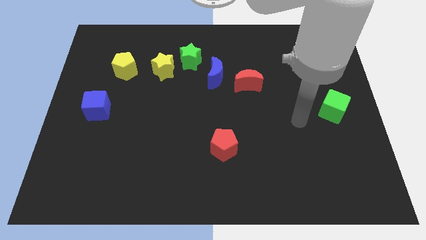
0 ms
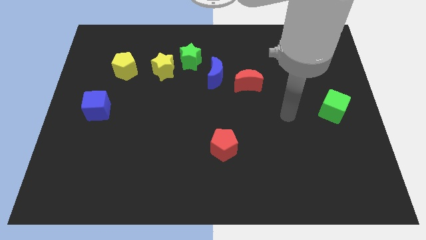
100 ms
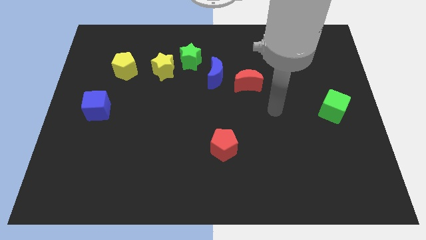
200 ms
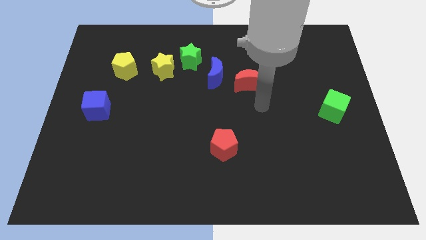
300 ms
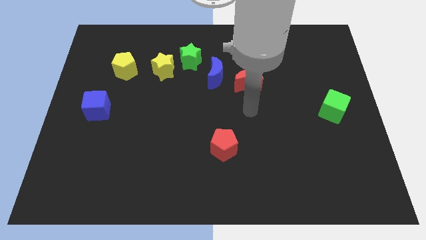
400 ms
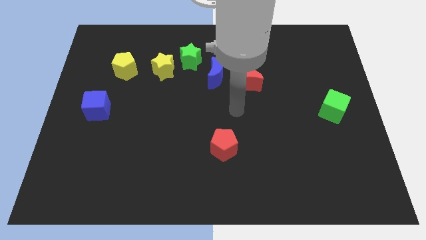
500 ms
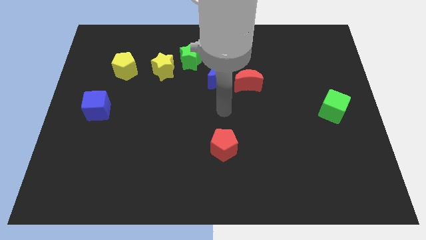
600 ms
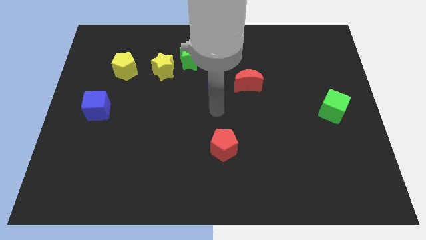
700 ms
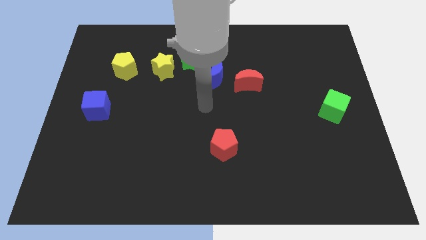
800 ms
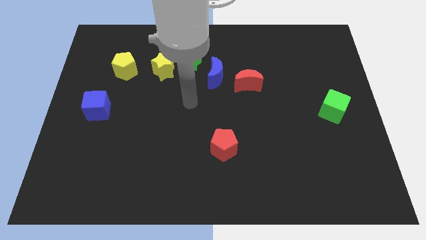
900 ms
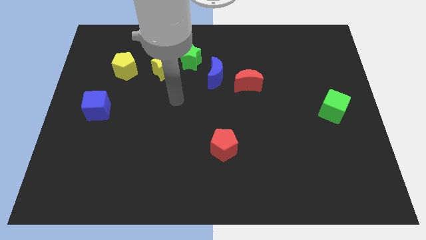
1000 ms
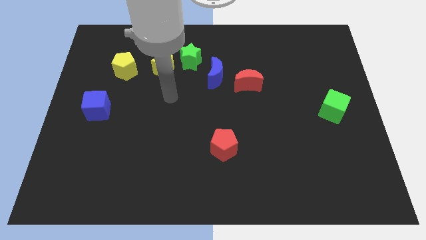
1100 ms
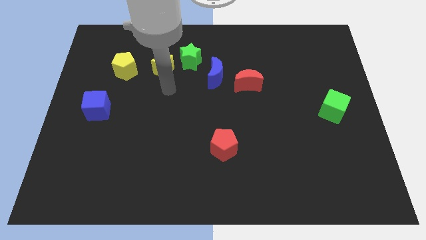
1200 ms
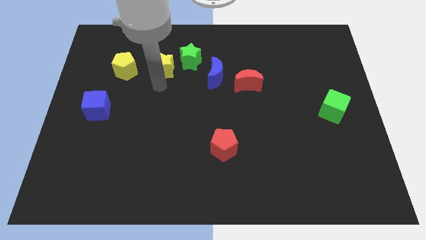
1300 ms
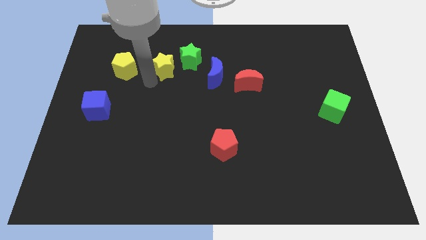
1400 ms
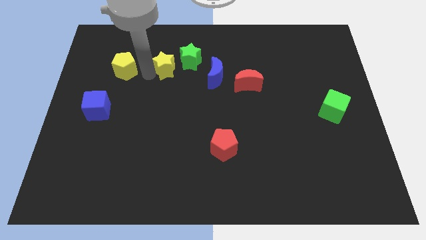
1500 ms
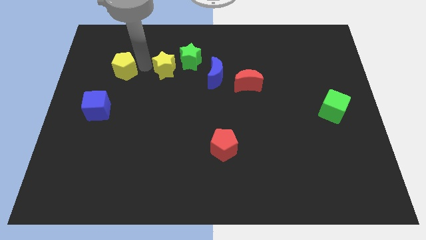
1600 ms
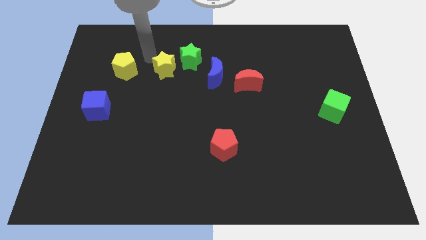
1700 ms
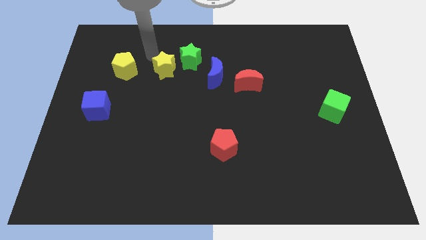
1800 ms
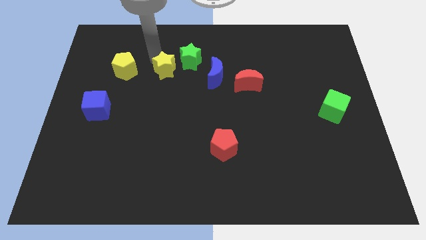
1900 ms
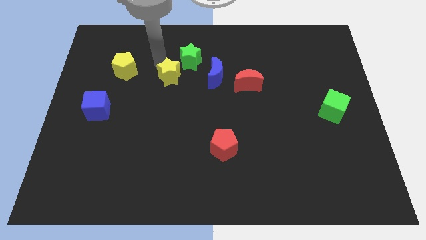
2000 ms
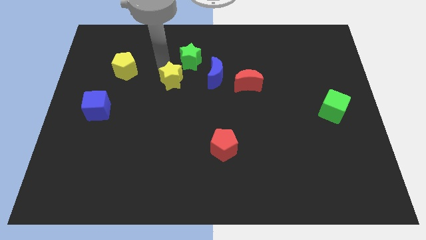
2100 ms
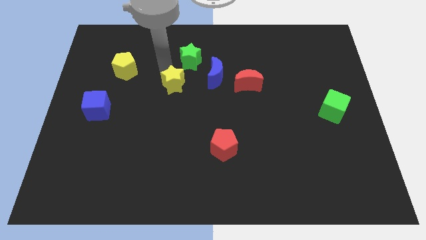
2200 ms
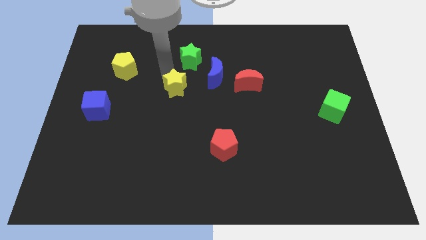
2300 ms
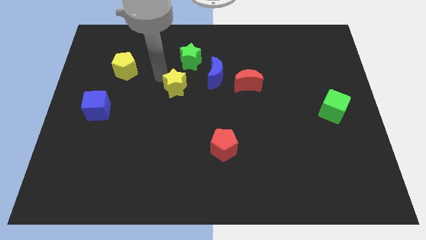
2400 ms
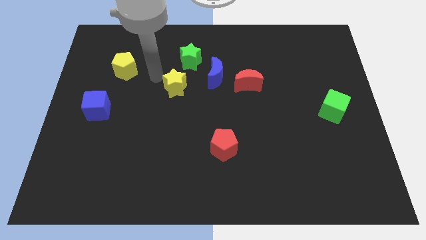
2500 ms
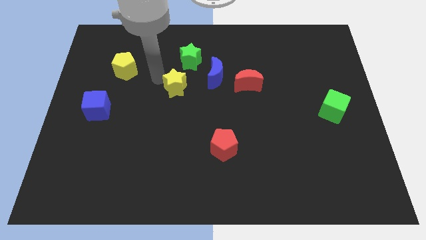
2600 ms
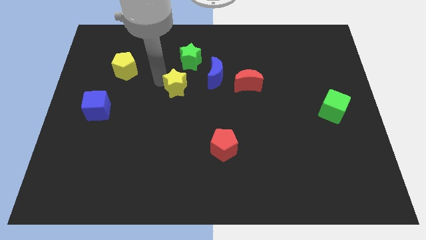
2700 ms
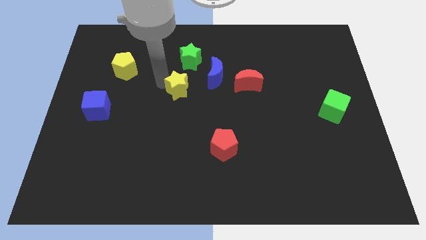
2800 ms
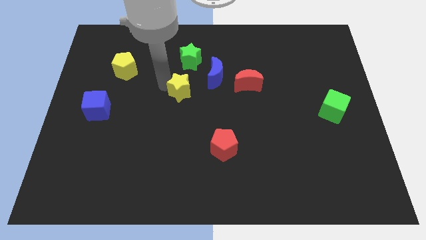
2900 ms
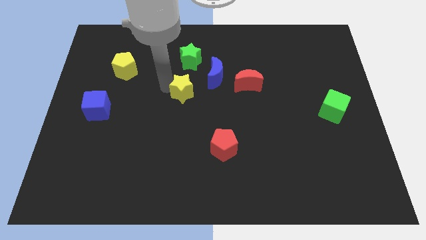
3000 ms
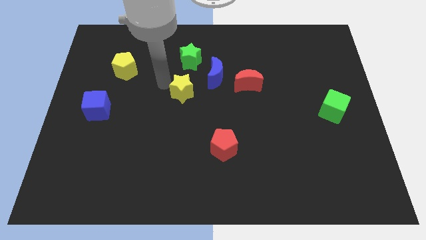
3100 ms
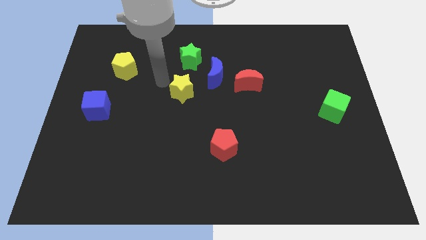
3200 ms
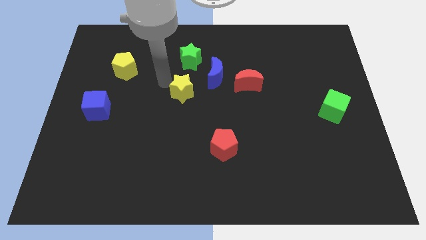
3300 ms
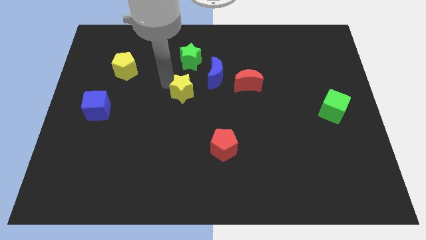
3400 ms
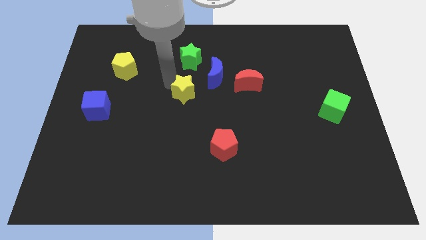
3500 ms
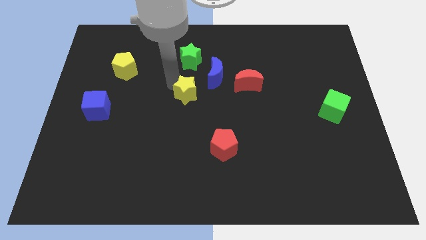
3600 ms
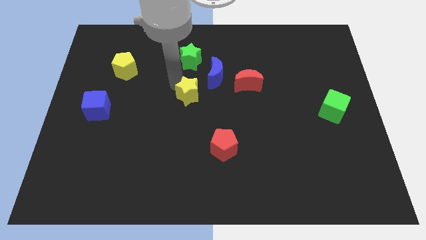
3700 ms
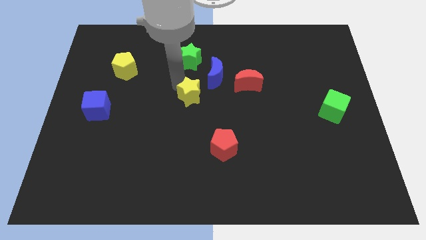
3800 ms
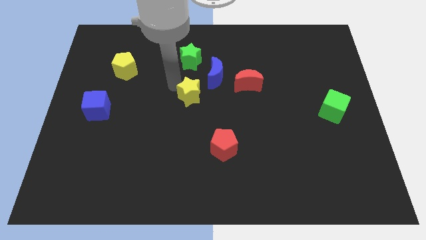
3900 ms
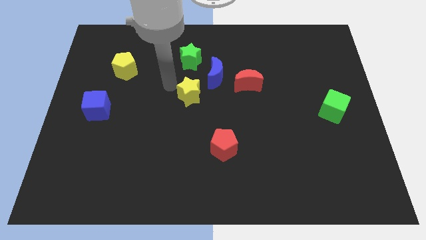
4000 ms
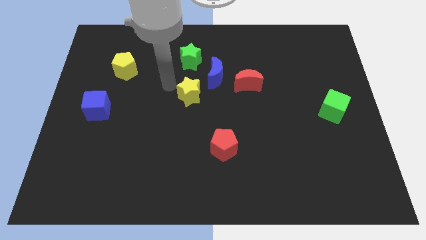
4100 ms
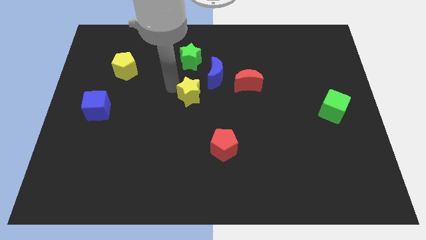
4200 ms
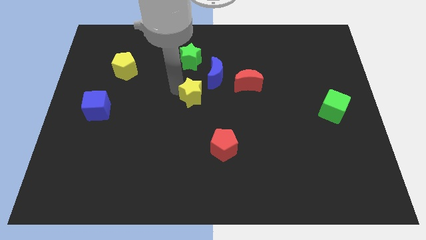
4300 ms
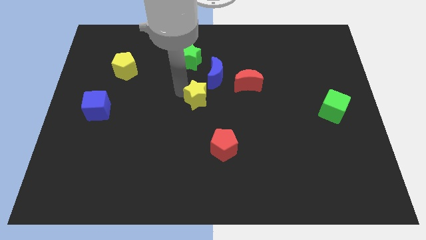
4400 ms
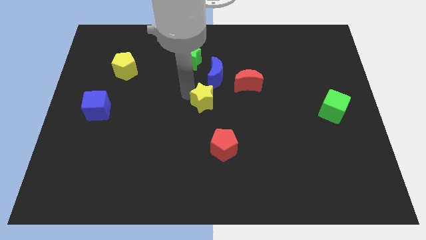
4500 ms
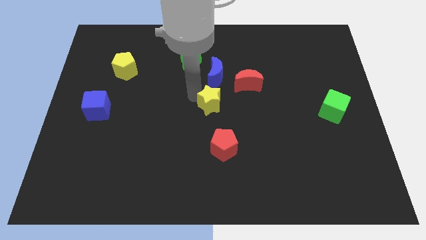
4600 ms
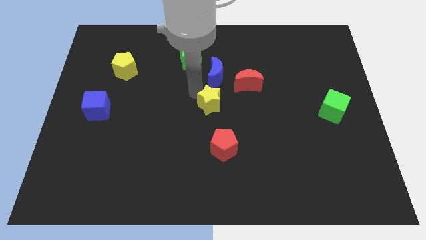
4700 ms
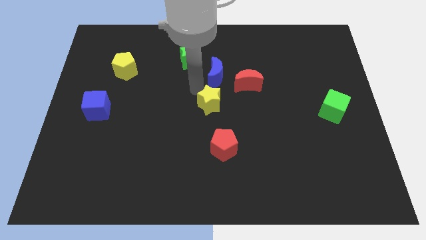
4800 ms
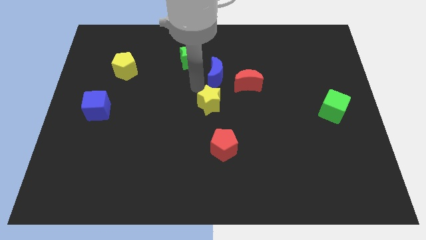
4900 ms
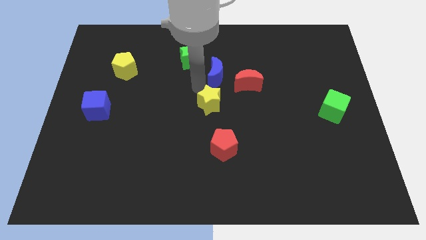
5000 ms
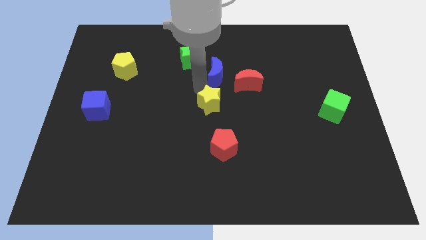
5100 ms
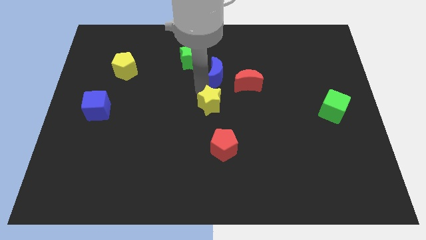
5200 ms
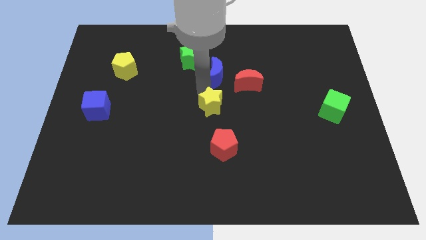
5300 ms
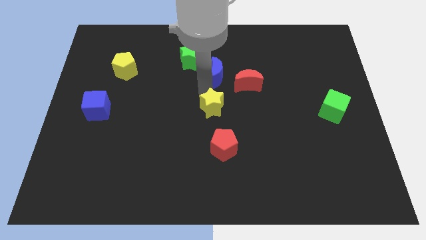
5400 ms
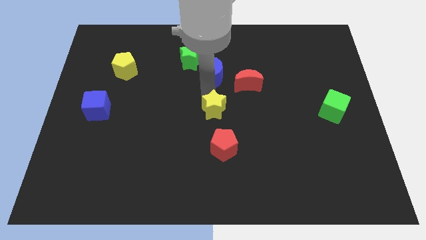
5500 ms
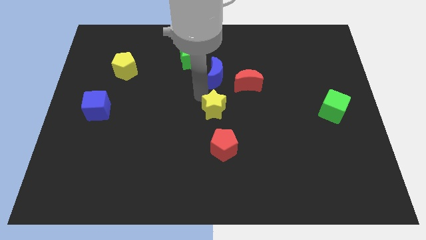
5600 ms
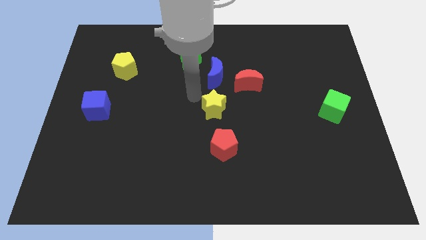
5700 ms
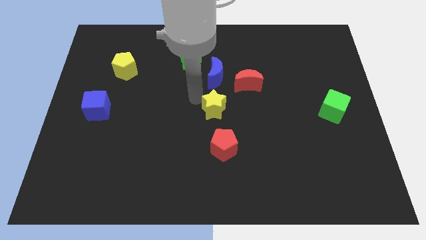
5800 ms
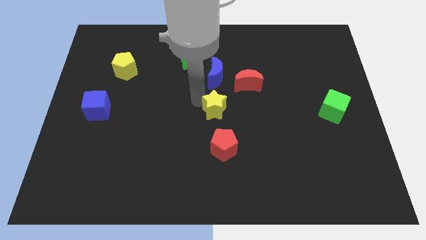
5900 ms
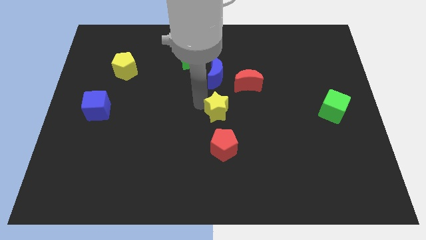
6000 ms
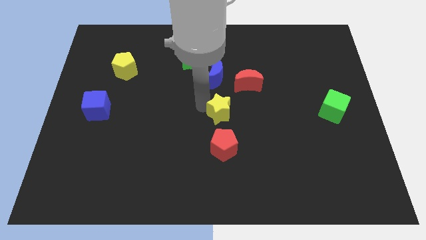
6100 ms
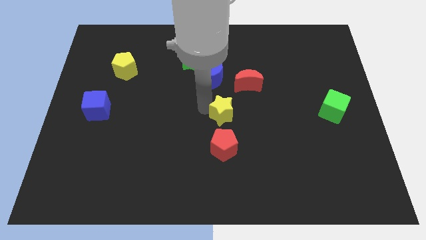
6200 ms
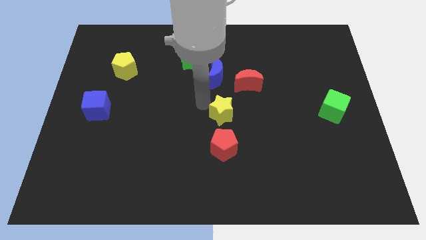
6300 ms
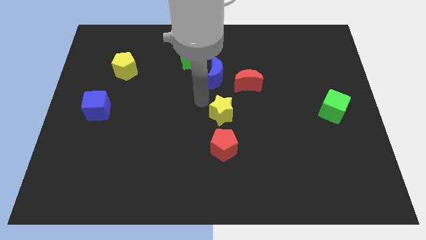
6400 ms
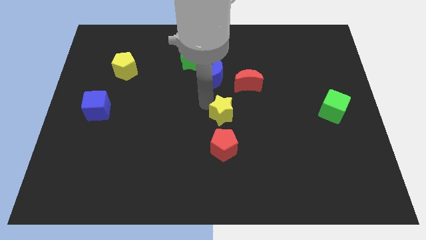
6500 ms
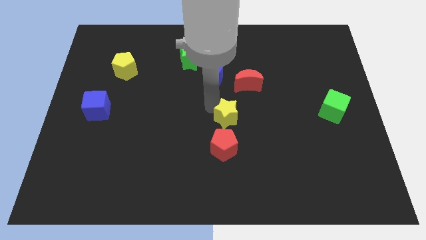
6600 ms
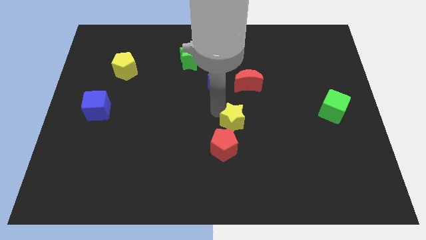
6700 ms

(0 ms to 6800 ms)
slide the yellow star to the top right side of the red pentagon
